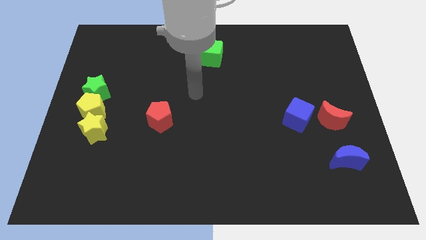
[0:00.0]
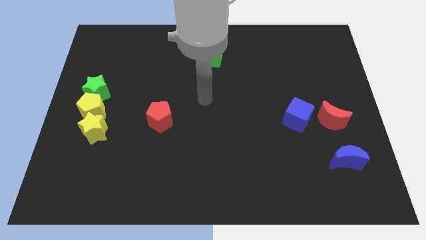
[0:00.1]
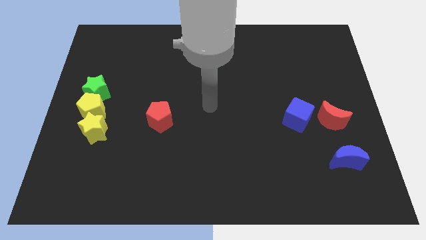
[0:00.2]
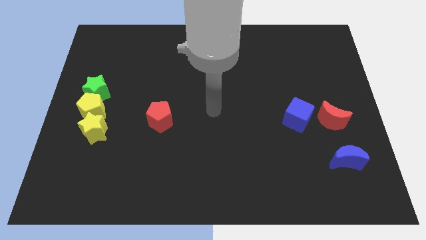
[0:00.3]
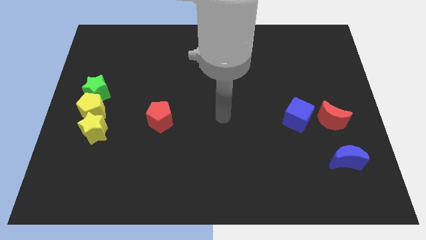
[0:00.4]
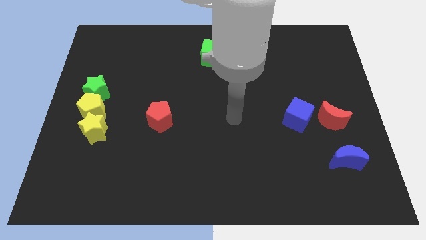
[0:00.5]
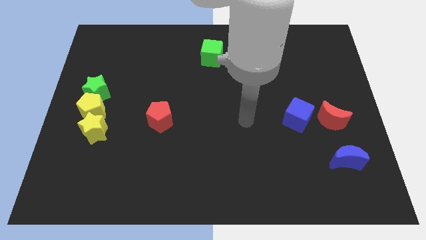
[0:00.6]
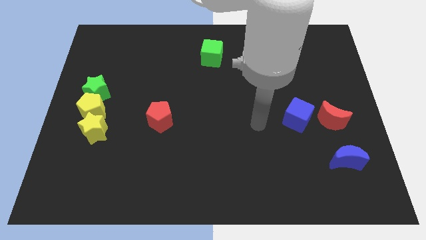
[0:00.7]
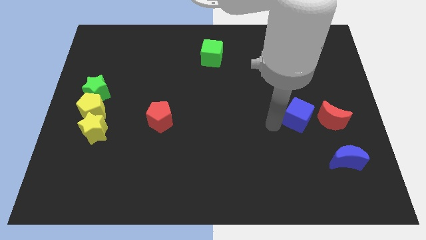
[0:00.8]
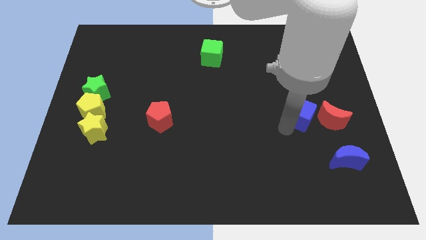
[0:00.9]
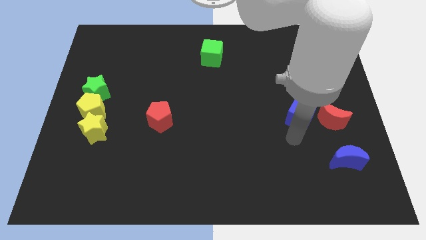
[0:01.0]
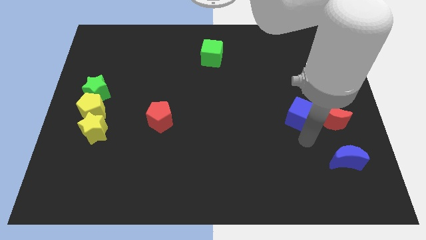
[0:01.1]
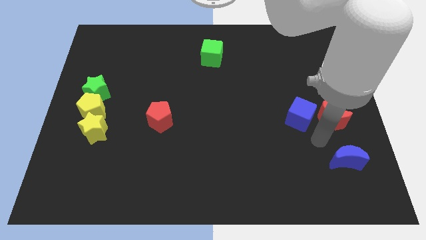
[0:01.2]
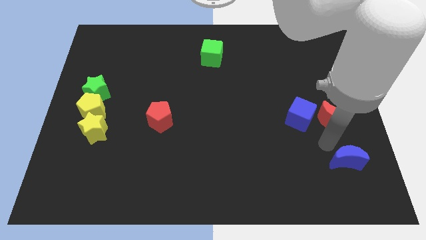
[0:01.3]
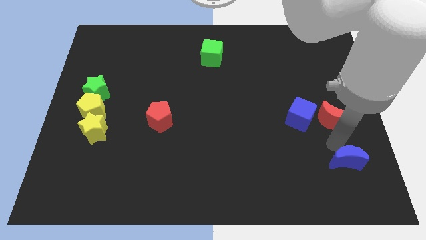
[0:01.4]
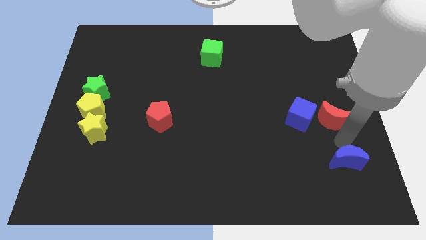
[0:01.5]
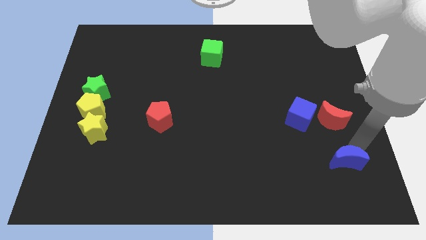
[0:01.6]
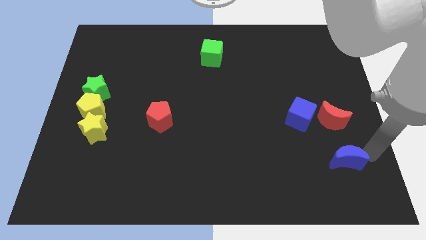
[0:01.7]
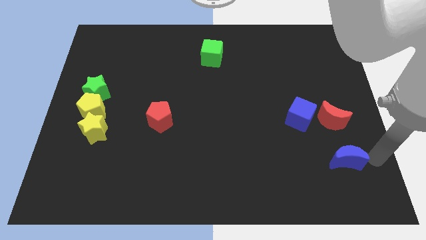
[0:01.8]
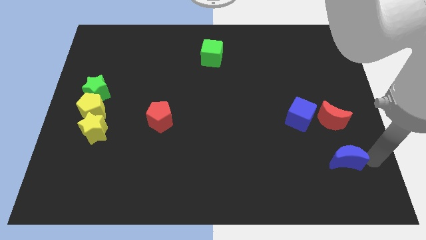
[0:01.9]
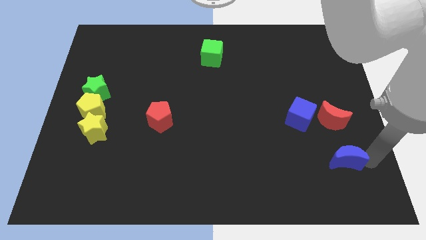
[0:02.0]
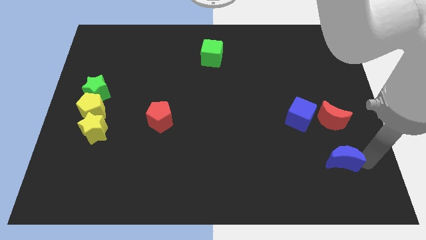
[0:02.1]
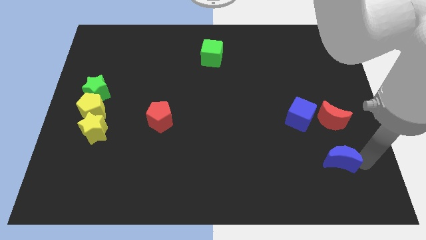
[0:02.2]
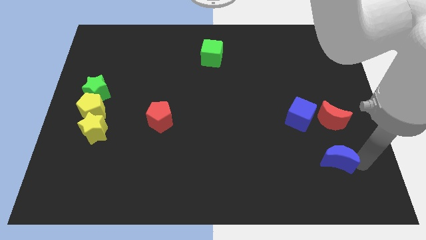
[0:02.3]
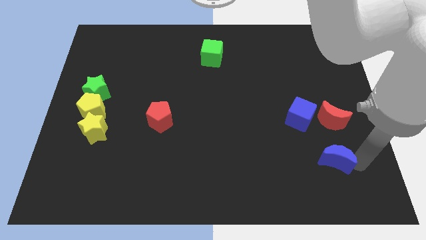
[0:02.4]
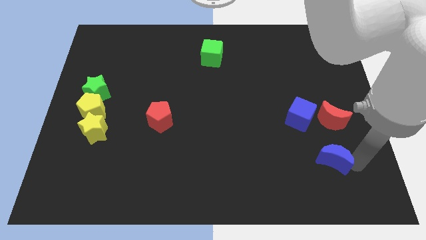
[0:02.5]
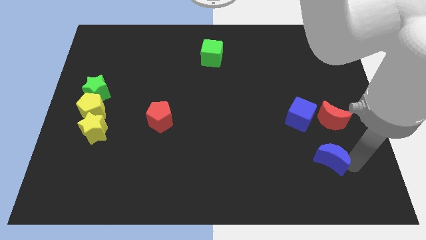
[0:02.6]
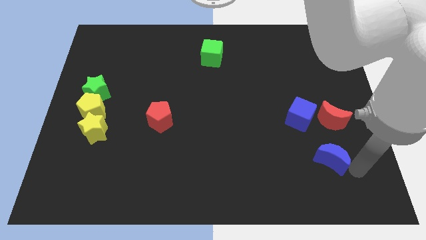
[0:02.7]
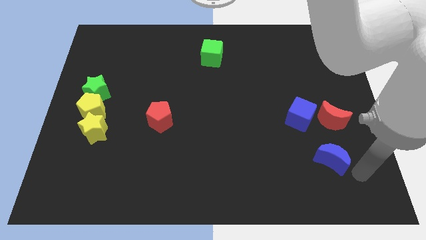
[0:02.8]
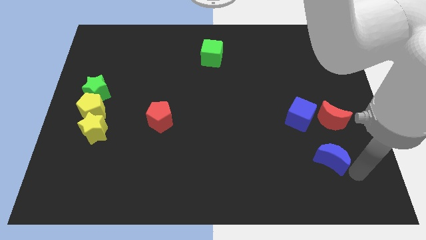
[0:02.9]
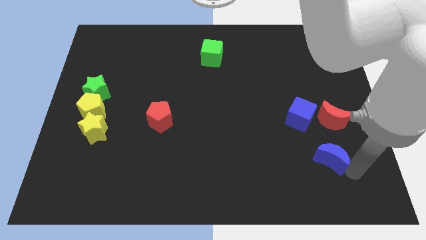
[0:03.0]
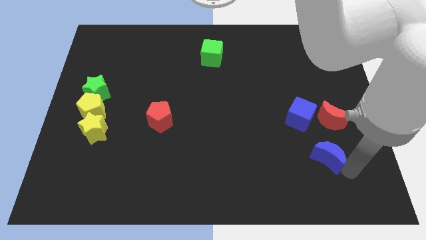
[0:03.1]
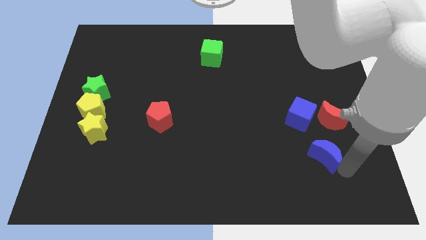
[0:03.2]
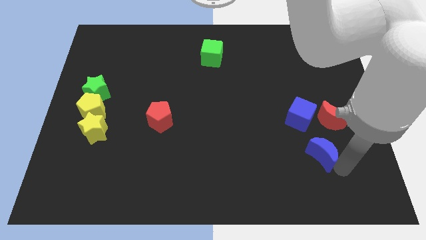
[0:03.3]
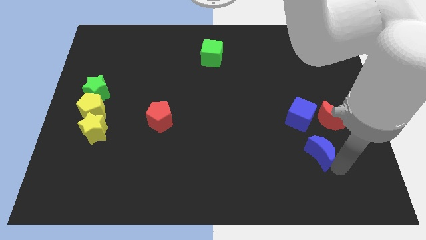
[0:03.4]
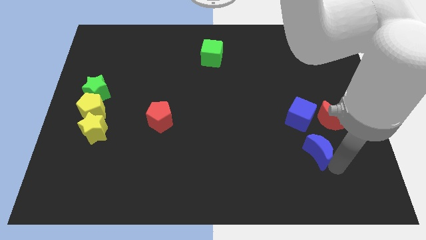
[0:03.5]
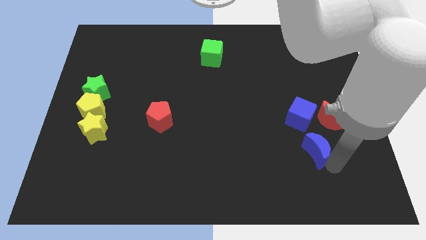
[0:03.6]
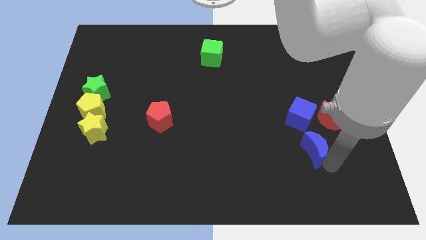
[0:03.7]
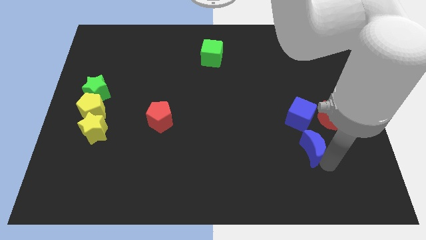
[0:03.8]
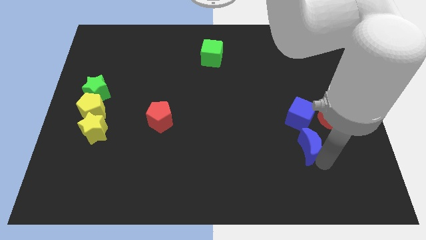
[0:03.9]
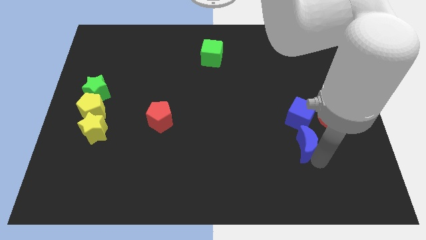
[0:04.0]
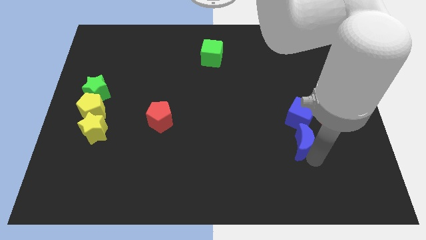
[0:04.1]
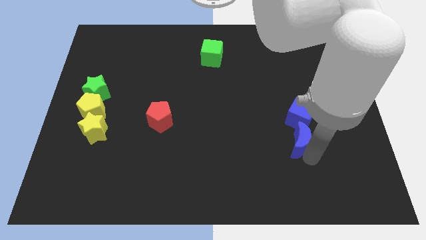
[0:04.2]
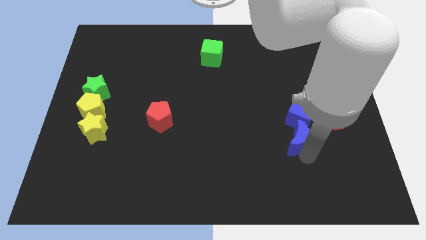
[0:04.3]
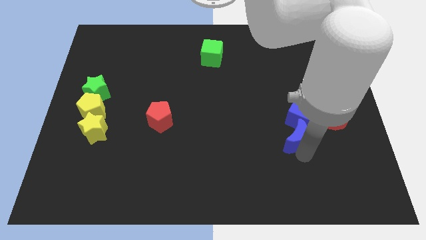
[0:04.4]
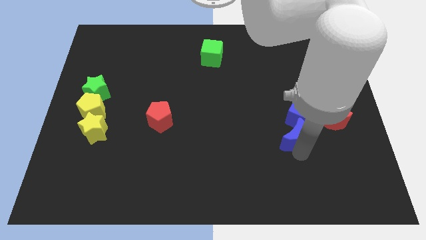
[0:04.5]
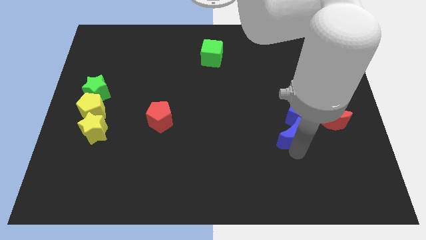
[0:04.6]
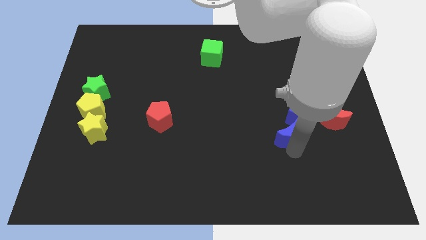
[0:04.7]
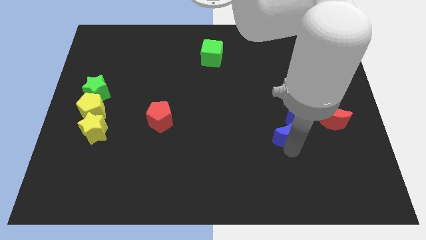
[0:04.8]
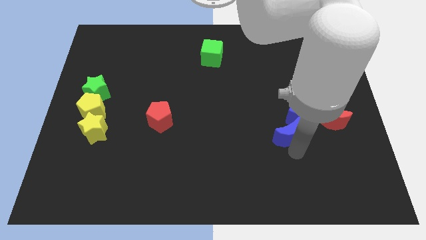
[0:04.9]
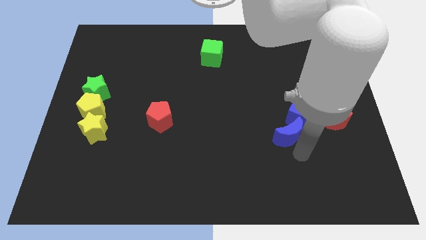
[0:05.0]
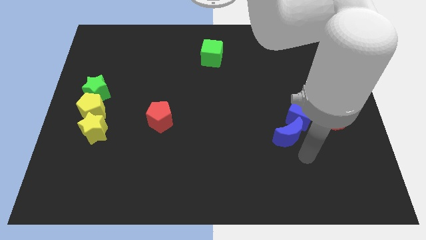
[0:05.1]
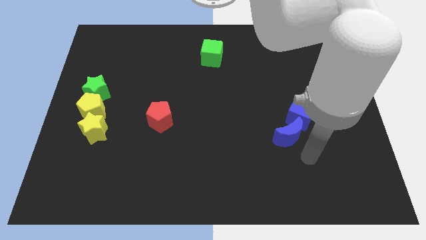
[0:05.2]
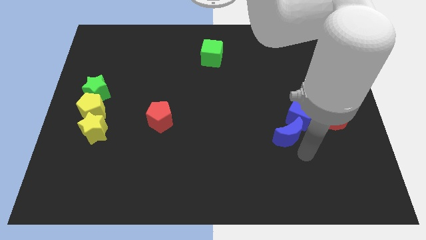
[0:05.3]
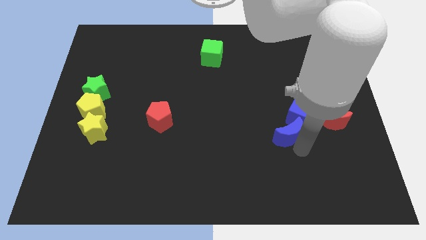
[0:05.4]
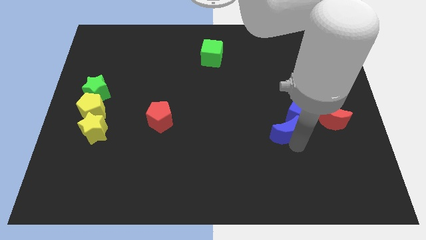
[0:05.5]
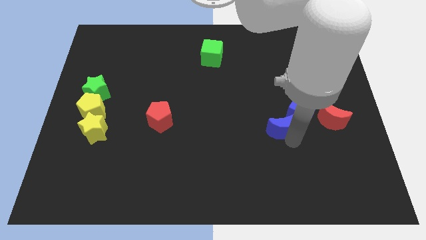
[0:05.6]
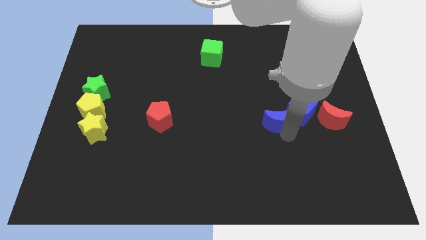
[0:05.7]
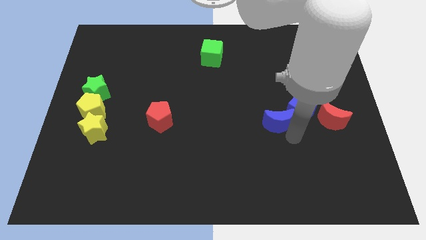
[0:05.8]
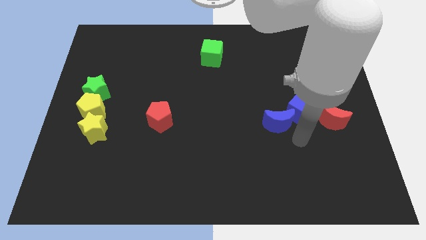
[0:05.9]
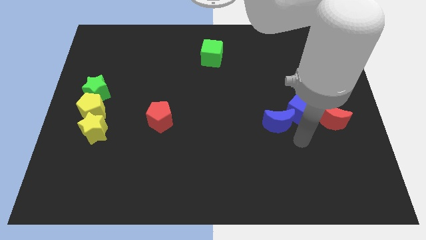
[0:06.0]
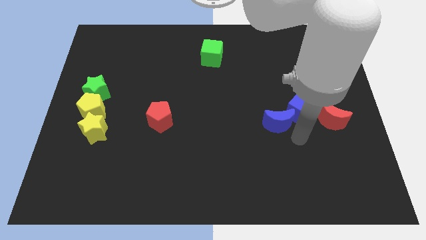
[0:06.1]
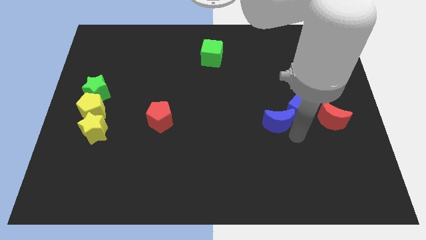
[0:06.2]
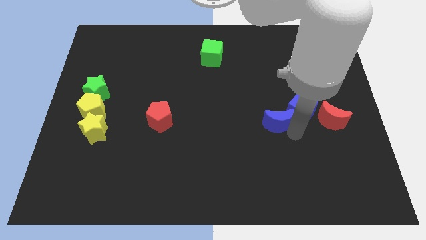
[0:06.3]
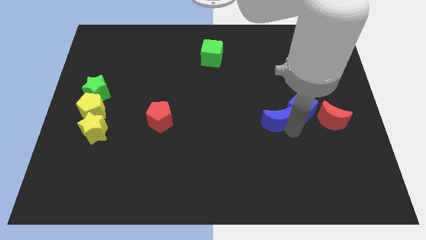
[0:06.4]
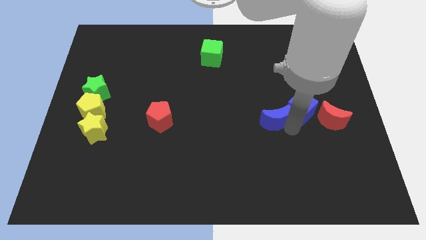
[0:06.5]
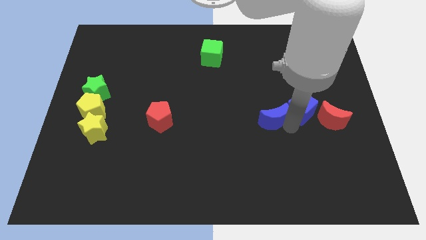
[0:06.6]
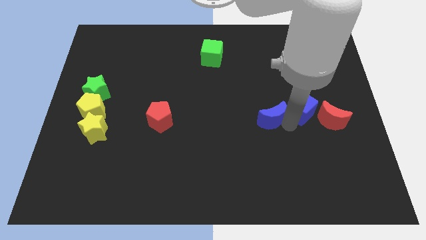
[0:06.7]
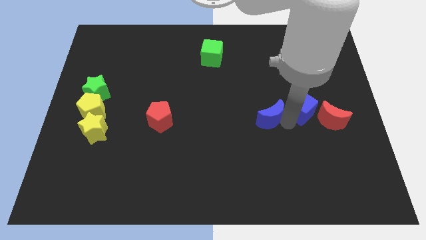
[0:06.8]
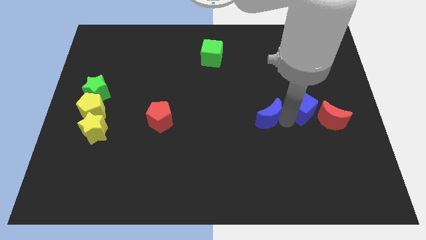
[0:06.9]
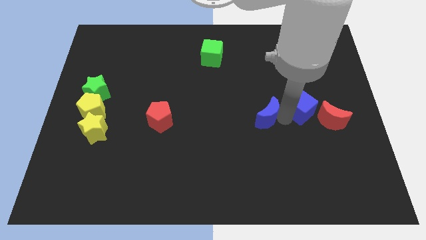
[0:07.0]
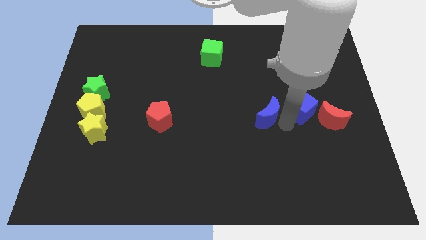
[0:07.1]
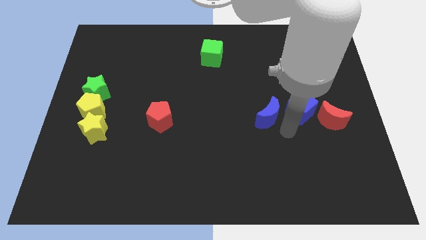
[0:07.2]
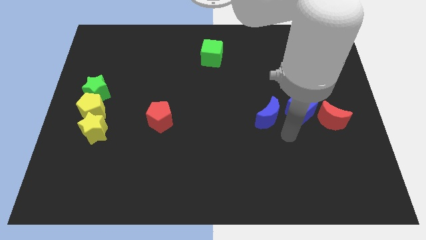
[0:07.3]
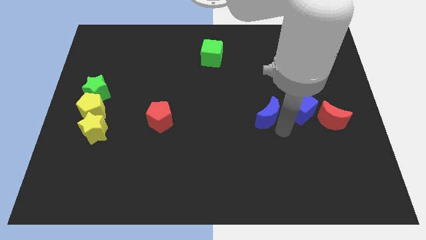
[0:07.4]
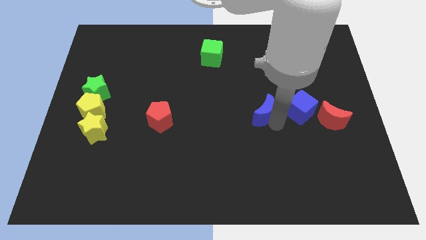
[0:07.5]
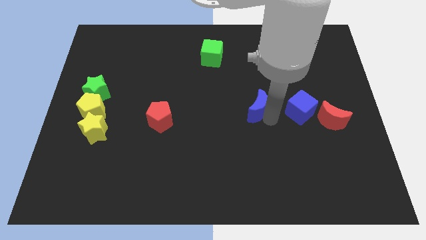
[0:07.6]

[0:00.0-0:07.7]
push the blue moon upwards and to the left

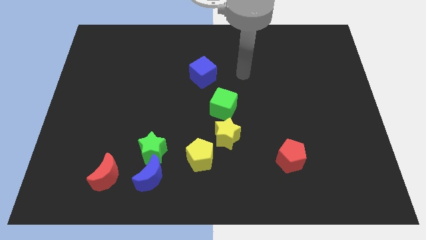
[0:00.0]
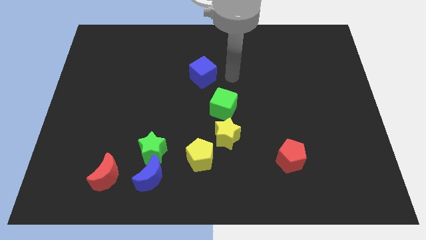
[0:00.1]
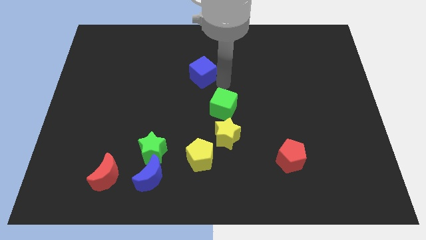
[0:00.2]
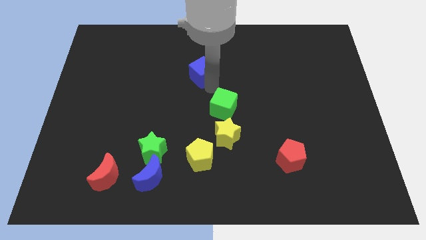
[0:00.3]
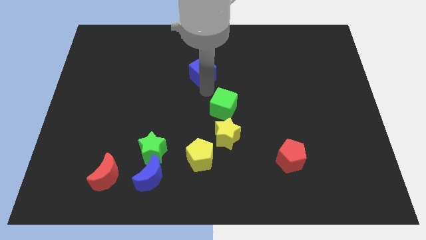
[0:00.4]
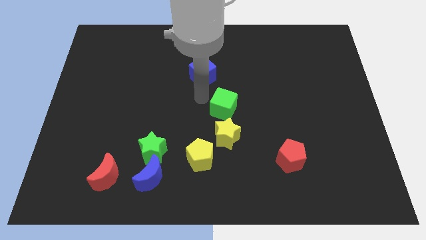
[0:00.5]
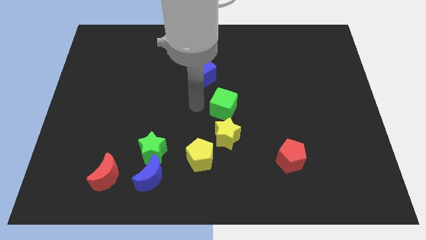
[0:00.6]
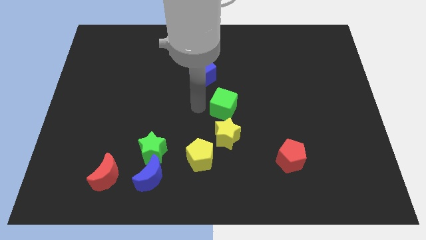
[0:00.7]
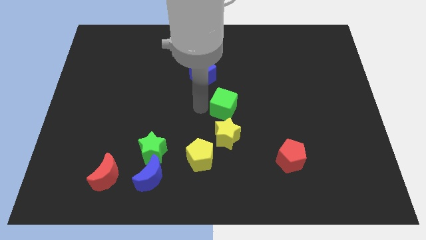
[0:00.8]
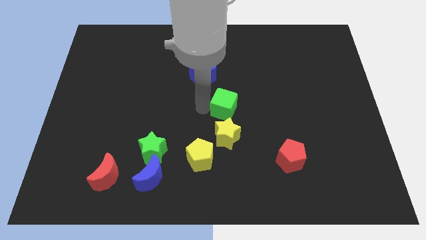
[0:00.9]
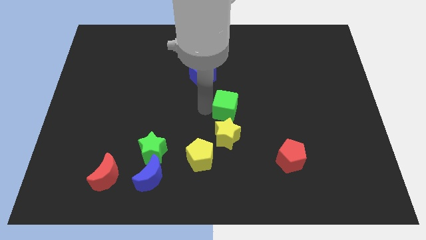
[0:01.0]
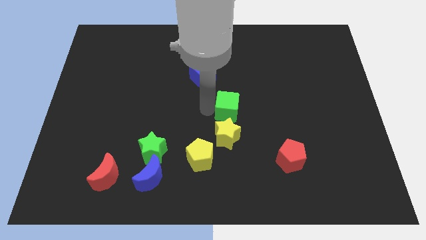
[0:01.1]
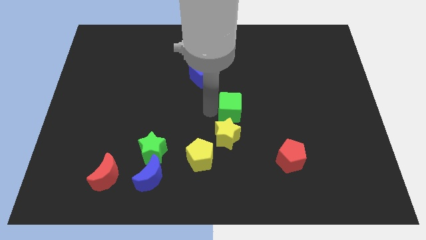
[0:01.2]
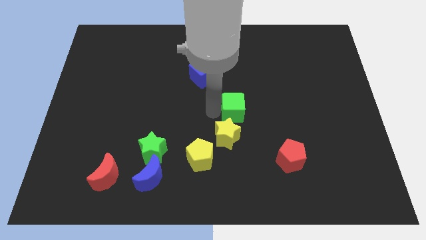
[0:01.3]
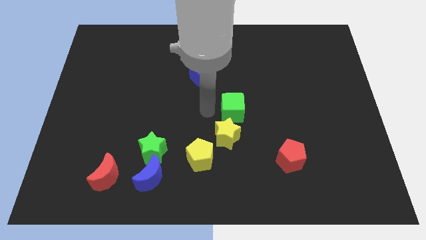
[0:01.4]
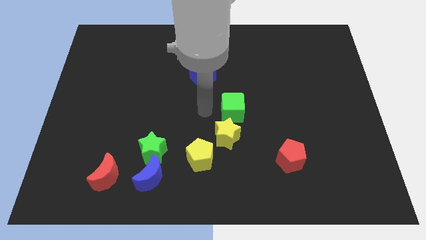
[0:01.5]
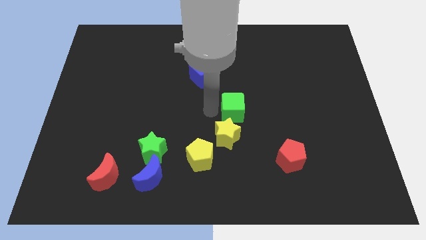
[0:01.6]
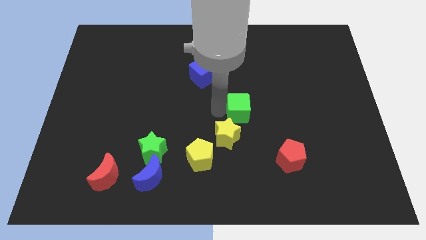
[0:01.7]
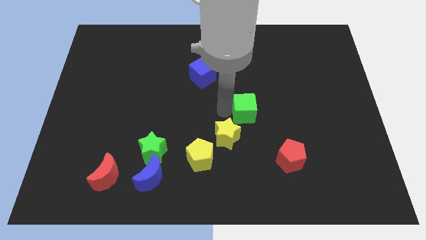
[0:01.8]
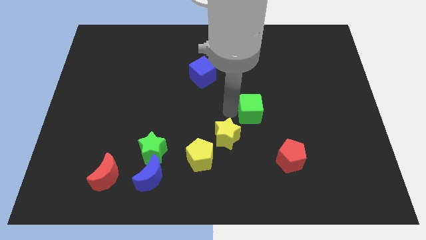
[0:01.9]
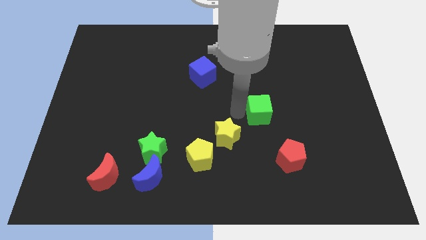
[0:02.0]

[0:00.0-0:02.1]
push the green cube a bit to the right
